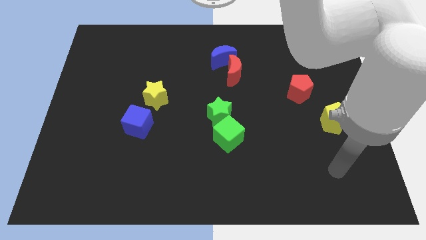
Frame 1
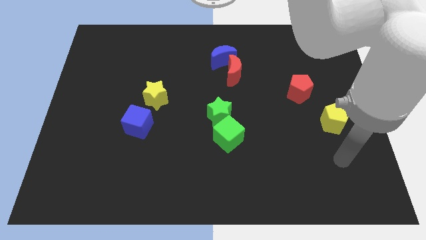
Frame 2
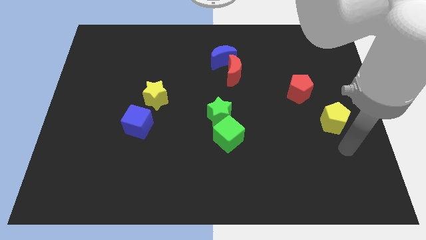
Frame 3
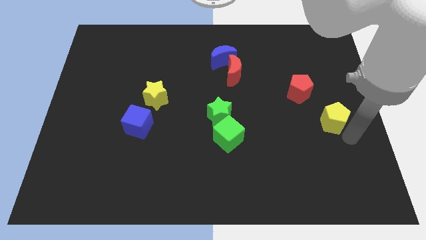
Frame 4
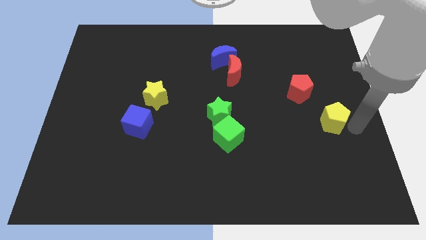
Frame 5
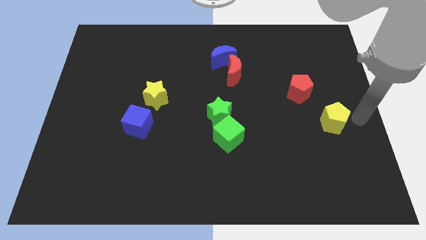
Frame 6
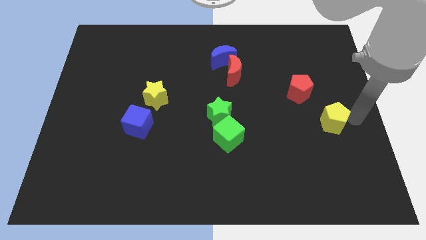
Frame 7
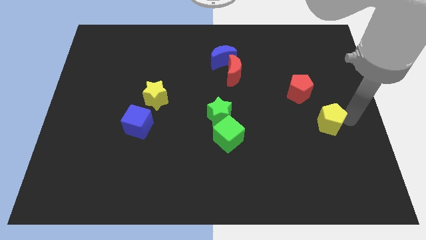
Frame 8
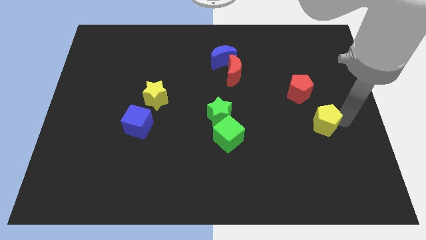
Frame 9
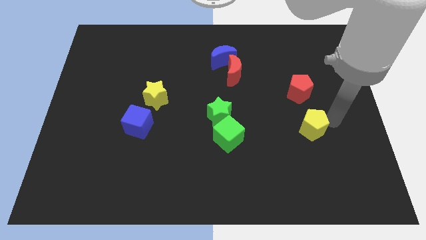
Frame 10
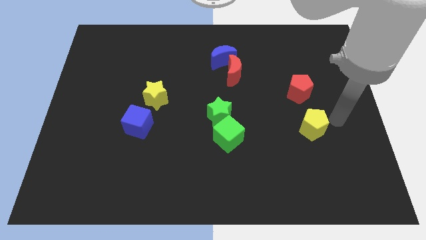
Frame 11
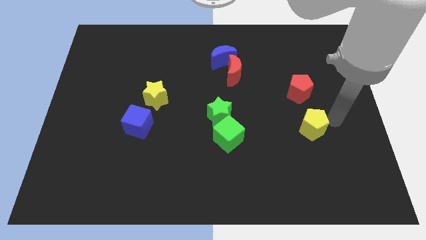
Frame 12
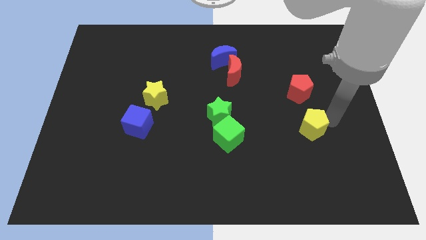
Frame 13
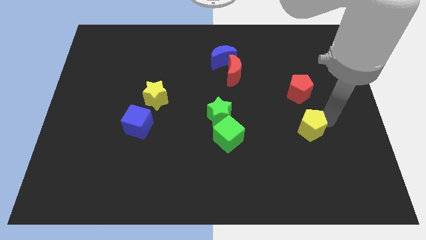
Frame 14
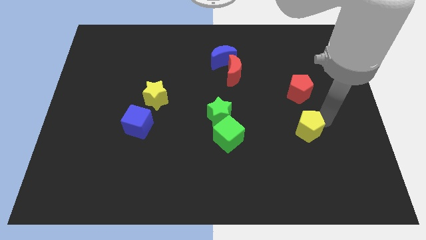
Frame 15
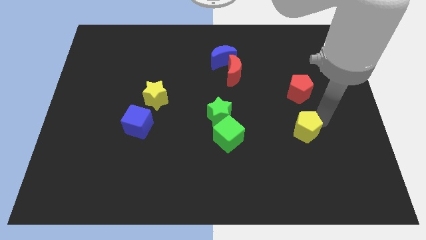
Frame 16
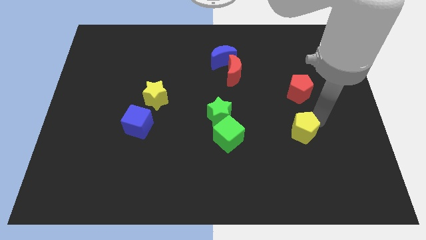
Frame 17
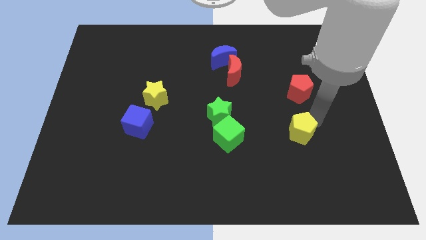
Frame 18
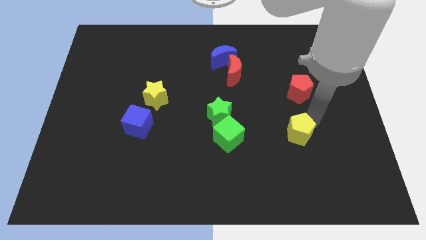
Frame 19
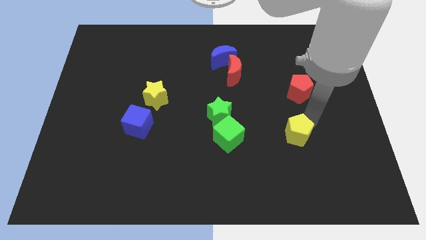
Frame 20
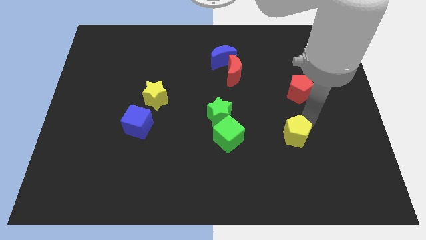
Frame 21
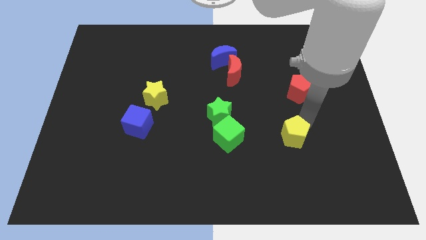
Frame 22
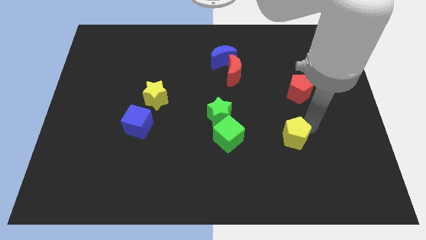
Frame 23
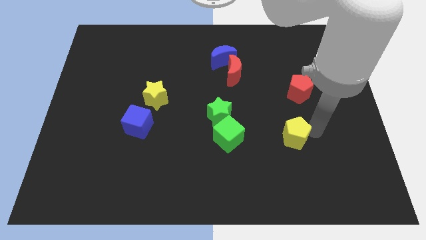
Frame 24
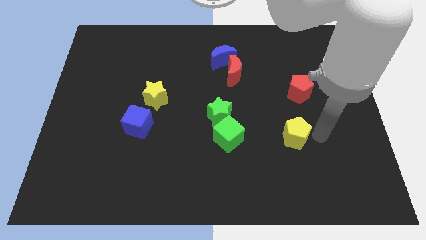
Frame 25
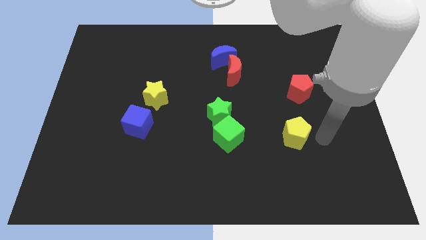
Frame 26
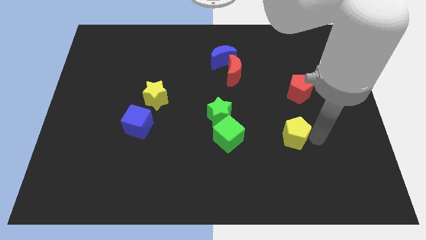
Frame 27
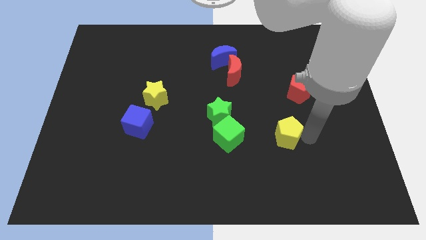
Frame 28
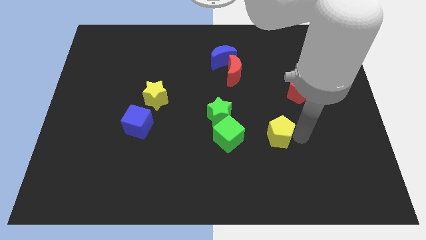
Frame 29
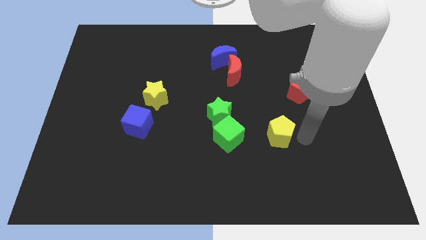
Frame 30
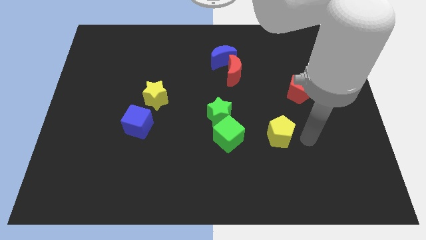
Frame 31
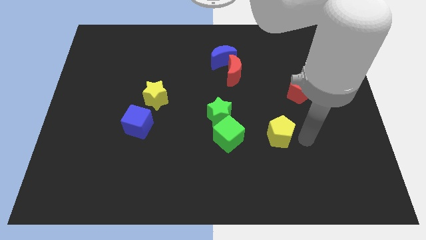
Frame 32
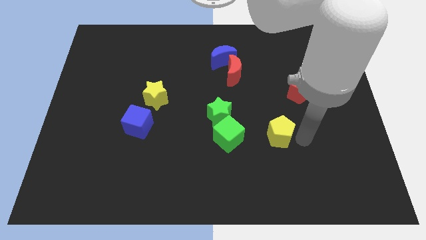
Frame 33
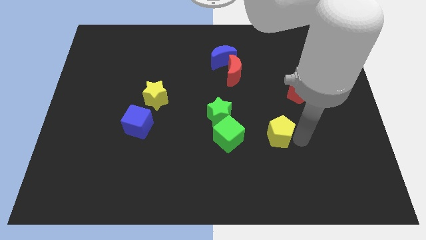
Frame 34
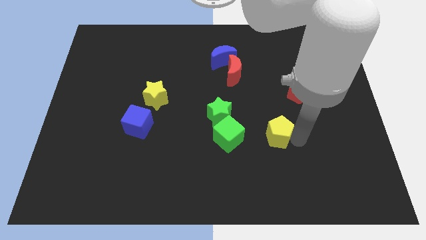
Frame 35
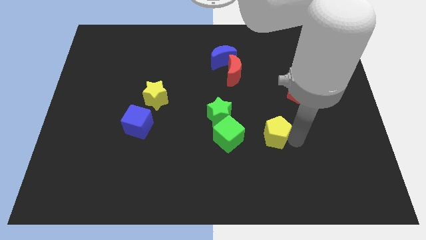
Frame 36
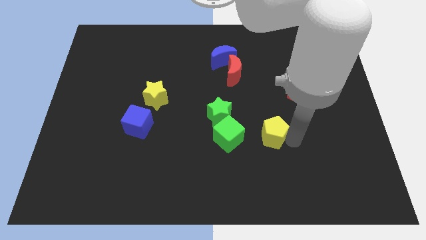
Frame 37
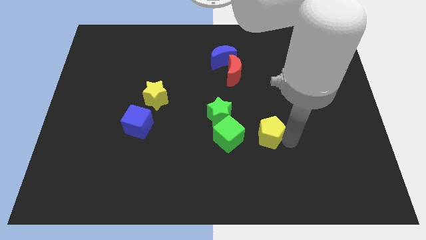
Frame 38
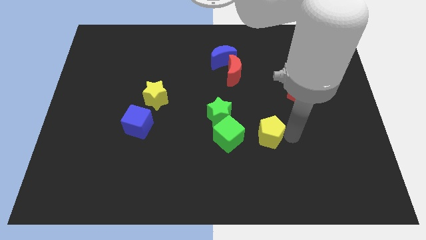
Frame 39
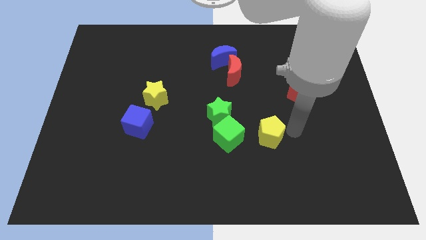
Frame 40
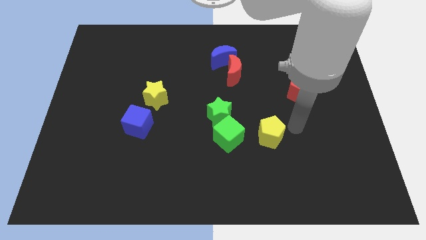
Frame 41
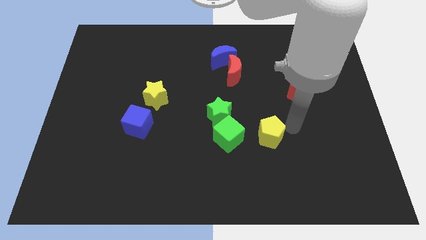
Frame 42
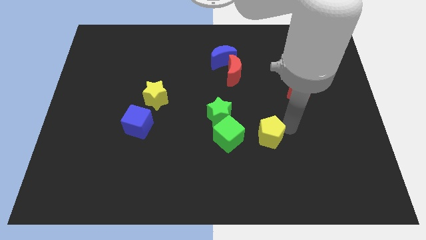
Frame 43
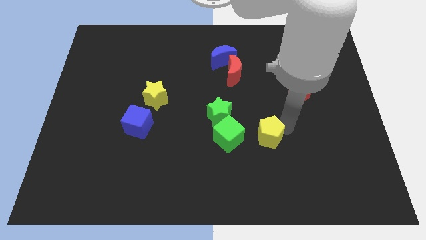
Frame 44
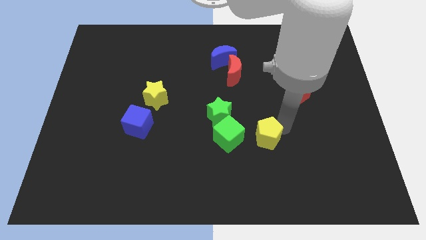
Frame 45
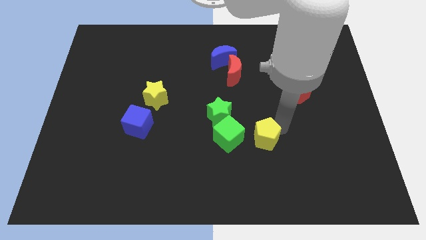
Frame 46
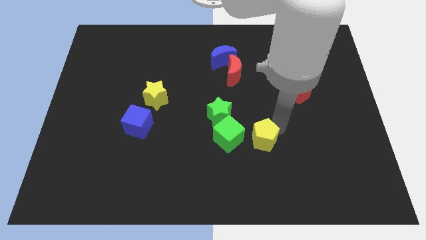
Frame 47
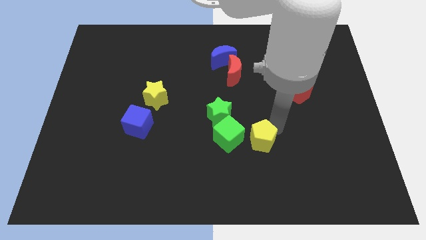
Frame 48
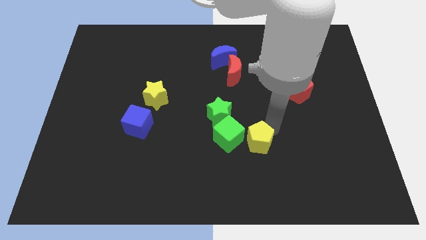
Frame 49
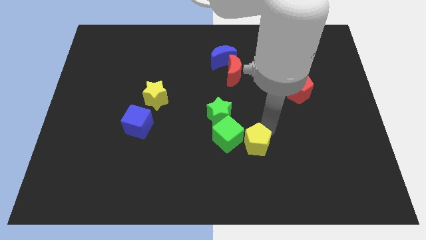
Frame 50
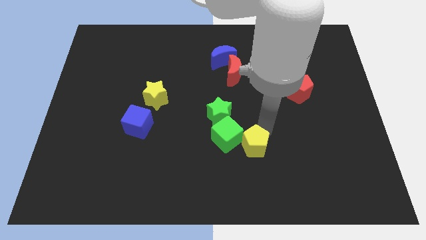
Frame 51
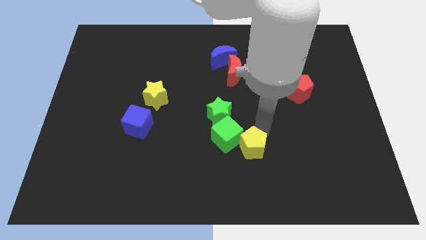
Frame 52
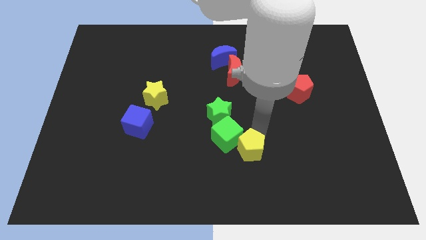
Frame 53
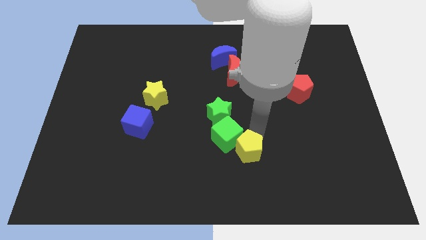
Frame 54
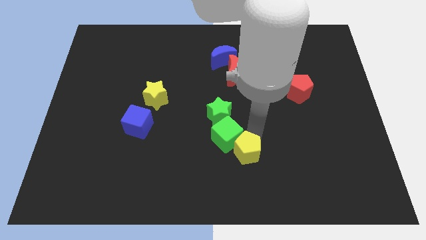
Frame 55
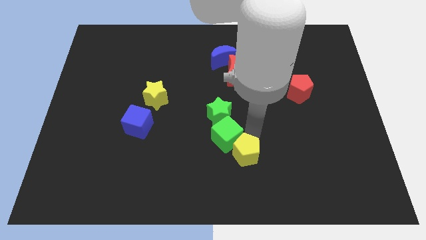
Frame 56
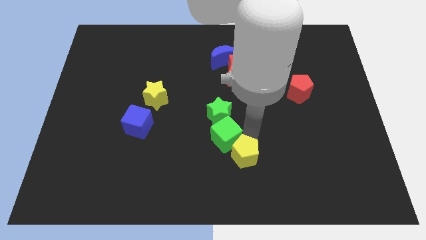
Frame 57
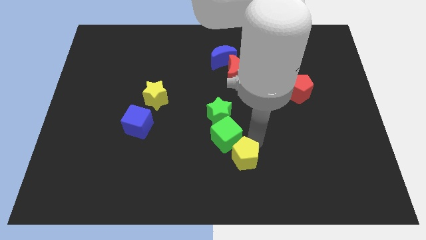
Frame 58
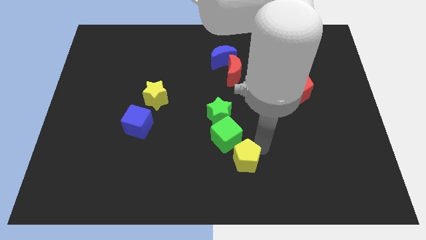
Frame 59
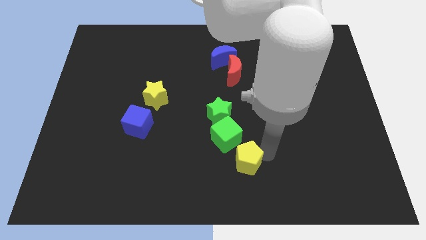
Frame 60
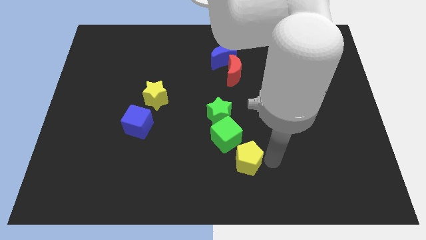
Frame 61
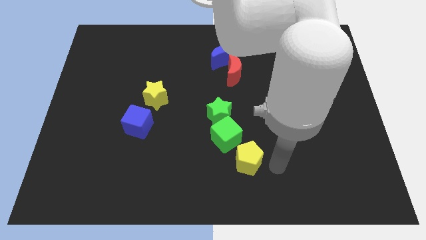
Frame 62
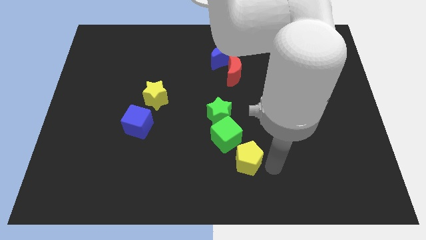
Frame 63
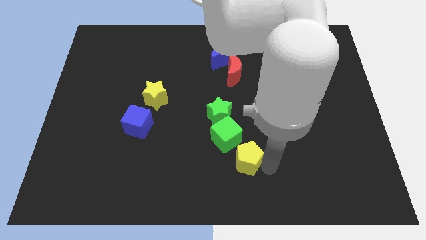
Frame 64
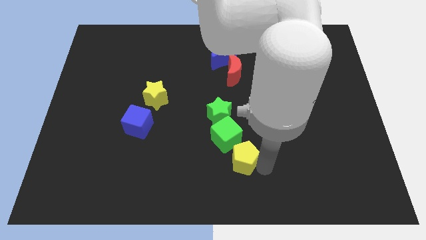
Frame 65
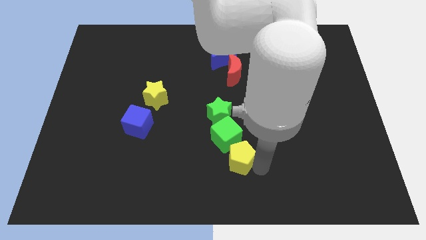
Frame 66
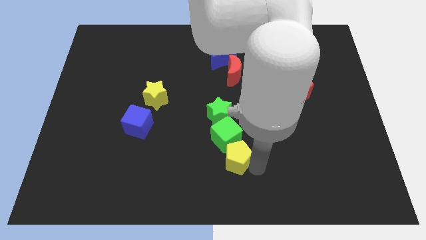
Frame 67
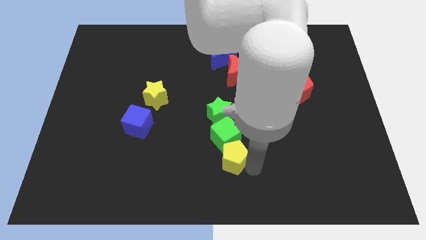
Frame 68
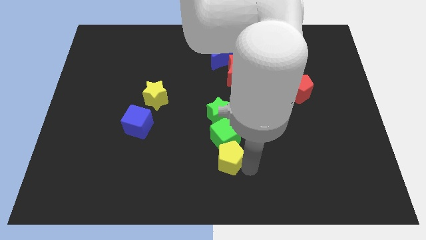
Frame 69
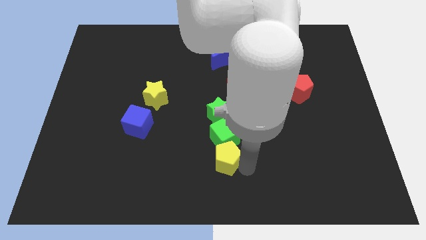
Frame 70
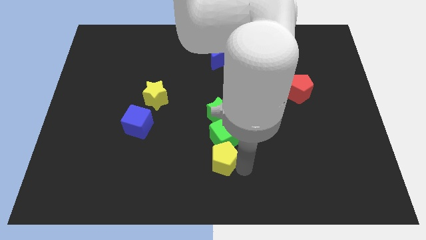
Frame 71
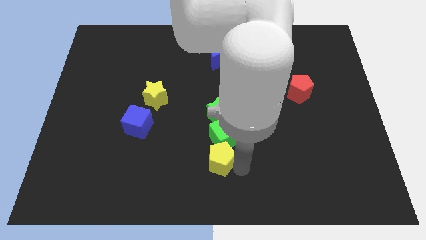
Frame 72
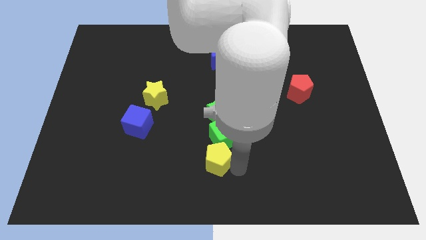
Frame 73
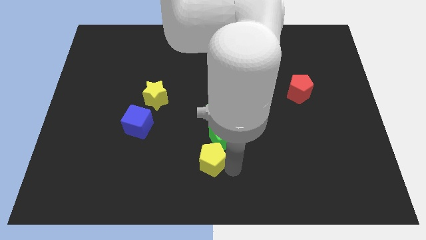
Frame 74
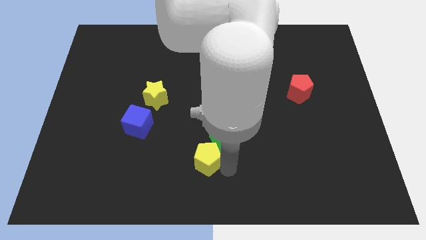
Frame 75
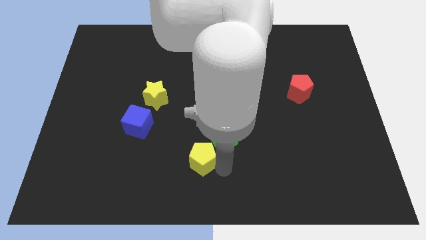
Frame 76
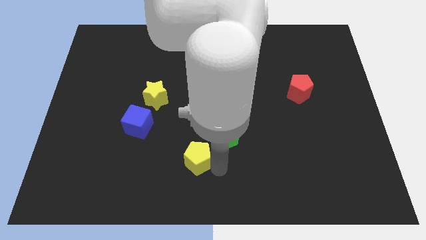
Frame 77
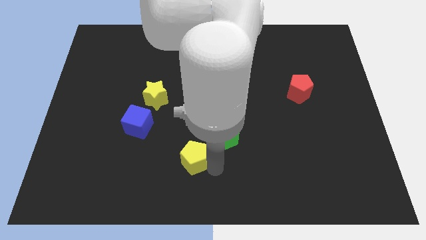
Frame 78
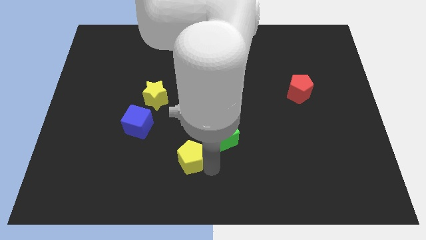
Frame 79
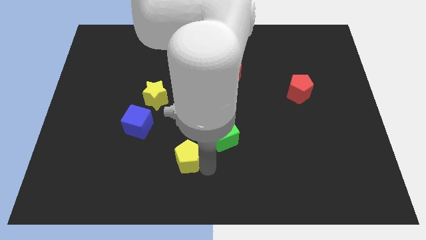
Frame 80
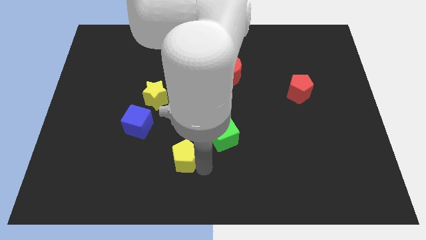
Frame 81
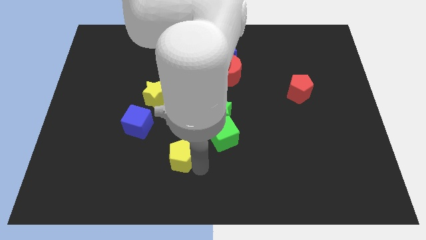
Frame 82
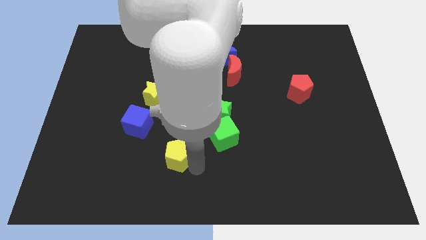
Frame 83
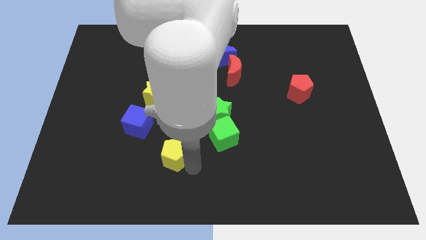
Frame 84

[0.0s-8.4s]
put the yellow pentagon to the left of the green cube
